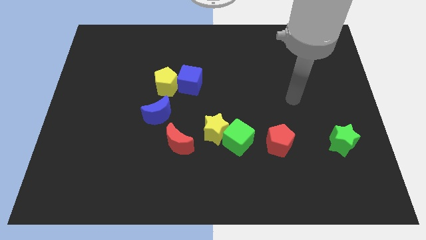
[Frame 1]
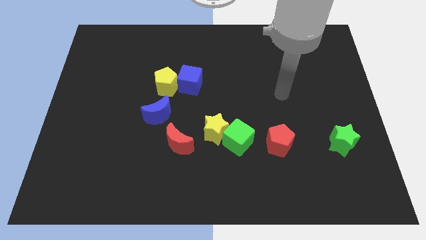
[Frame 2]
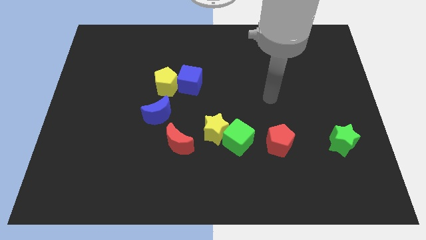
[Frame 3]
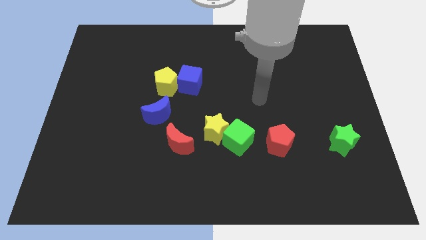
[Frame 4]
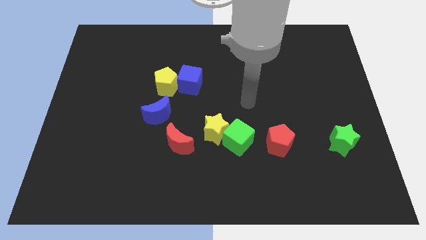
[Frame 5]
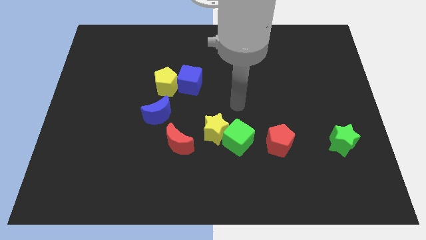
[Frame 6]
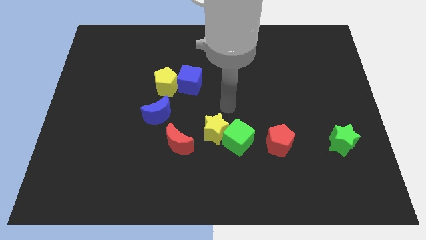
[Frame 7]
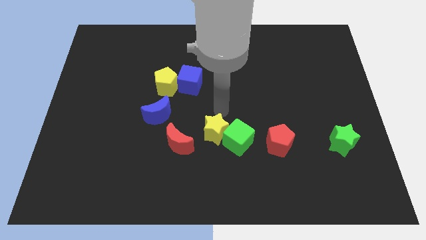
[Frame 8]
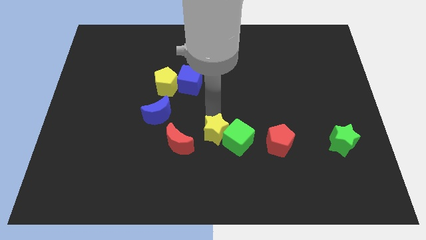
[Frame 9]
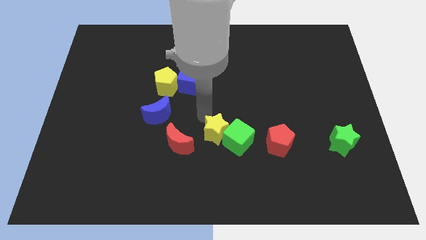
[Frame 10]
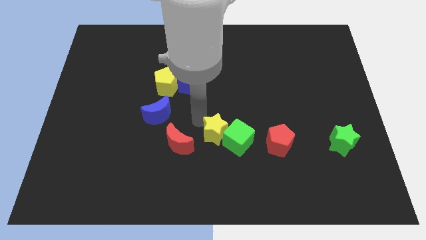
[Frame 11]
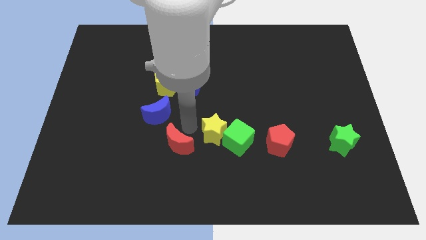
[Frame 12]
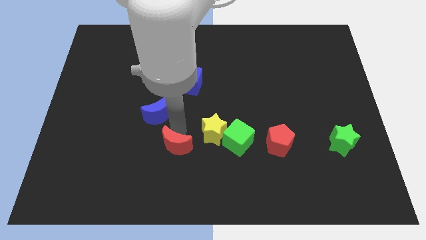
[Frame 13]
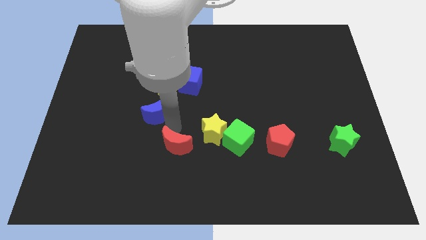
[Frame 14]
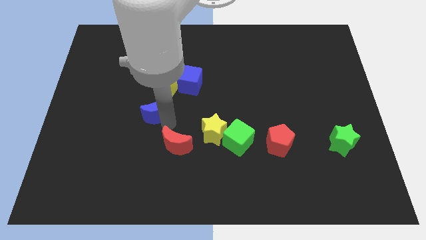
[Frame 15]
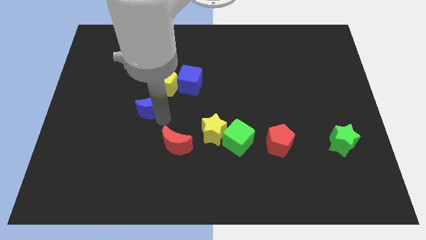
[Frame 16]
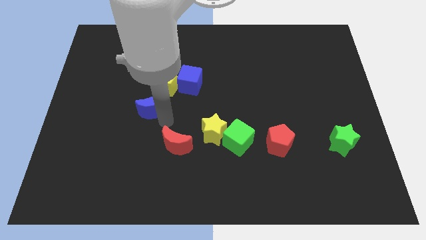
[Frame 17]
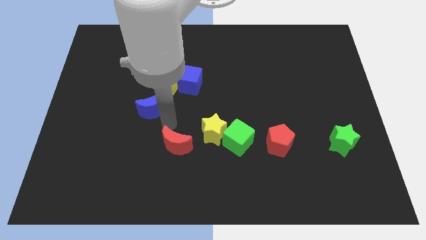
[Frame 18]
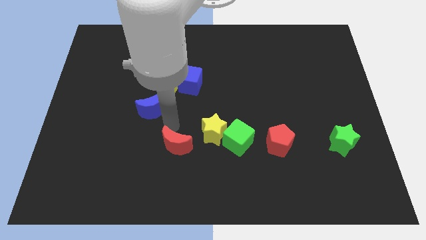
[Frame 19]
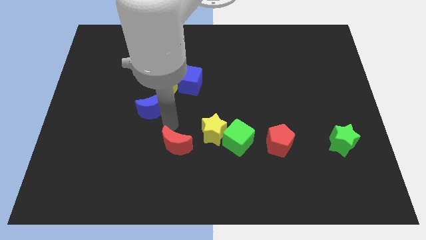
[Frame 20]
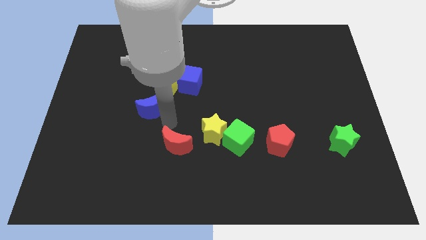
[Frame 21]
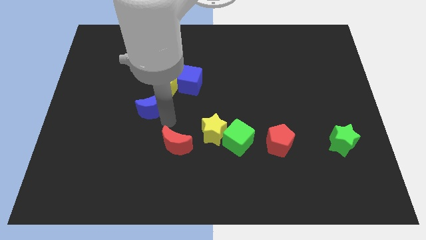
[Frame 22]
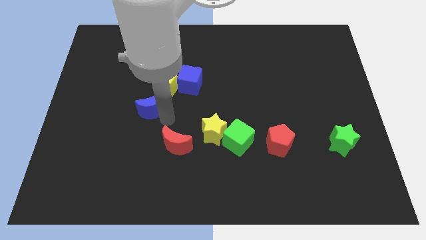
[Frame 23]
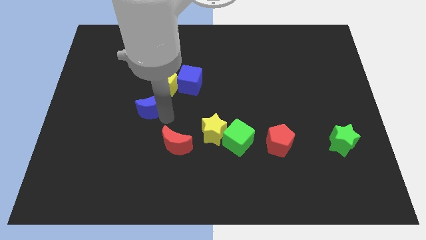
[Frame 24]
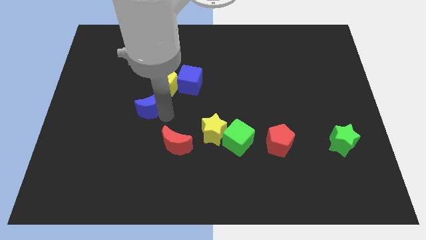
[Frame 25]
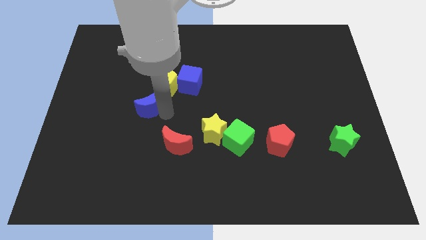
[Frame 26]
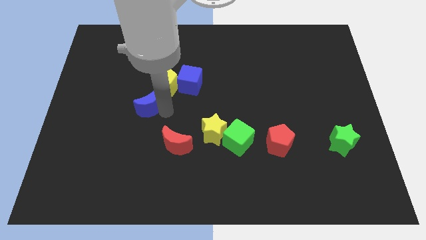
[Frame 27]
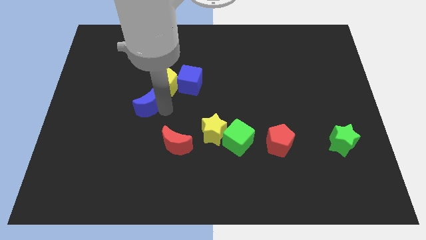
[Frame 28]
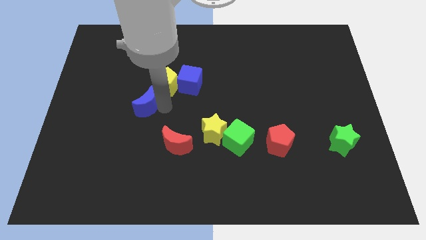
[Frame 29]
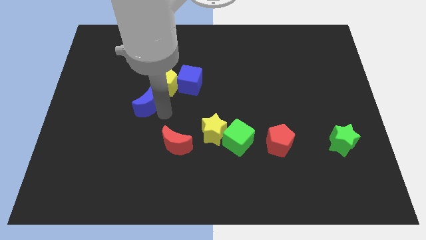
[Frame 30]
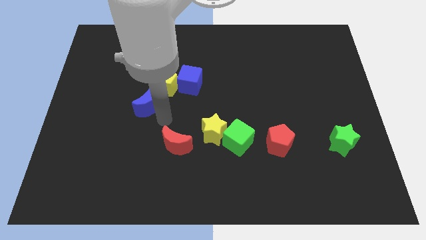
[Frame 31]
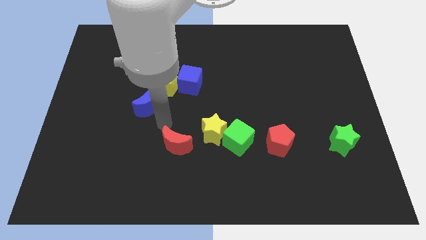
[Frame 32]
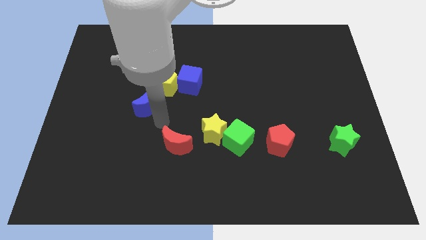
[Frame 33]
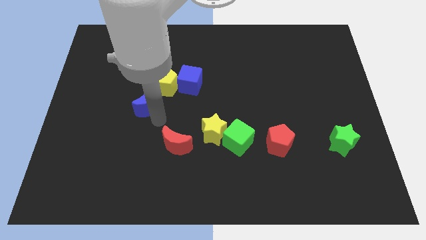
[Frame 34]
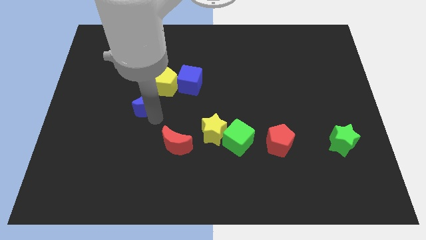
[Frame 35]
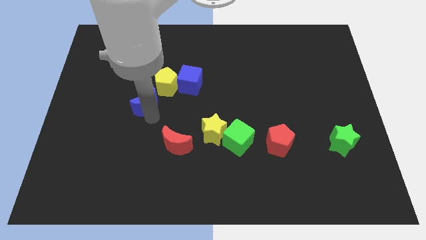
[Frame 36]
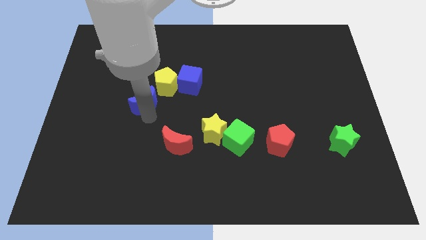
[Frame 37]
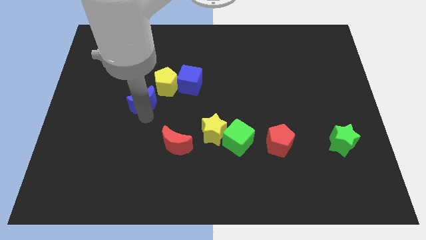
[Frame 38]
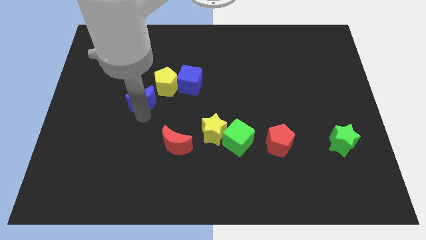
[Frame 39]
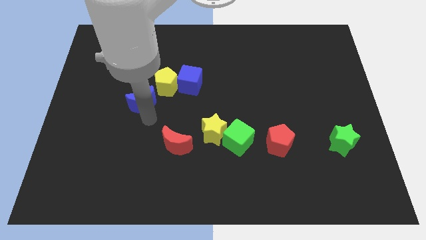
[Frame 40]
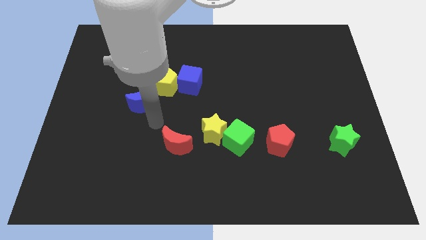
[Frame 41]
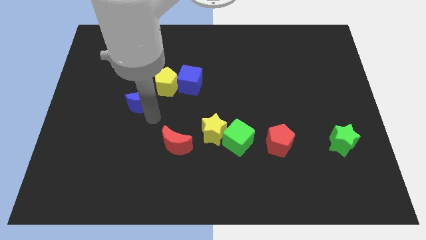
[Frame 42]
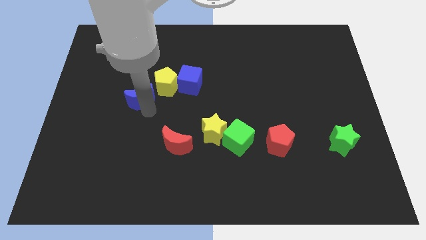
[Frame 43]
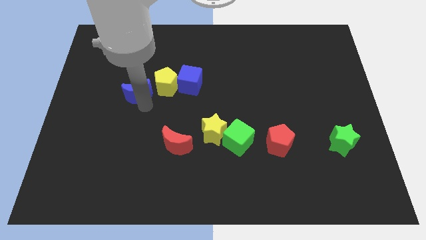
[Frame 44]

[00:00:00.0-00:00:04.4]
push the blue moon up and then left a little

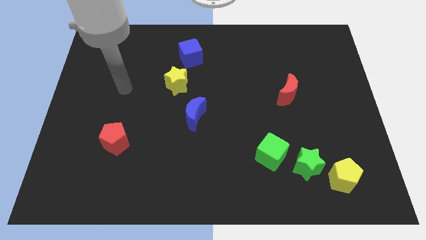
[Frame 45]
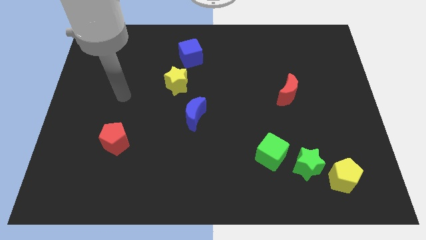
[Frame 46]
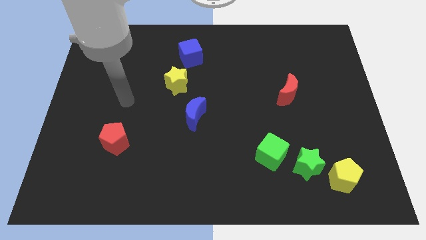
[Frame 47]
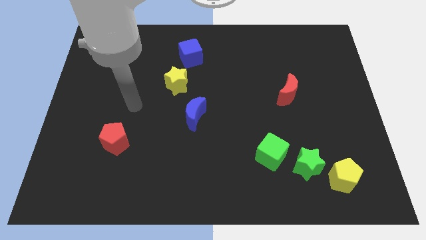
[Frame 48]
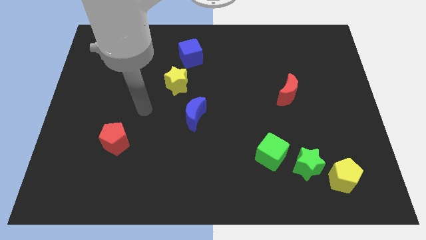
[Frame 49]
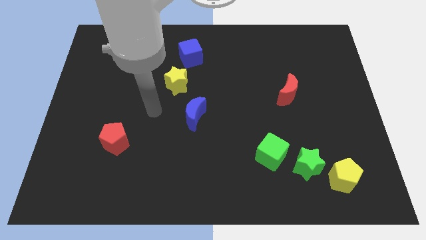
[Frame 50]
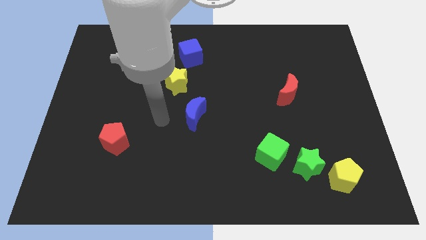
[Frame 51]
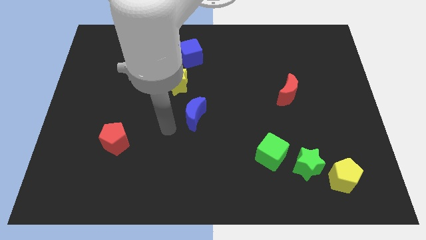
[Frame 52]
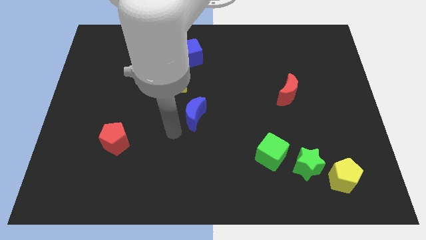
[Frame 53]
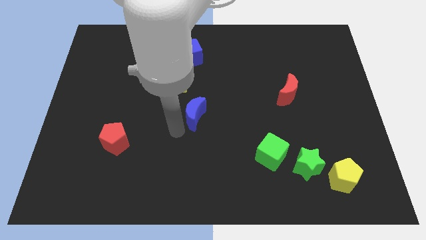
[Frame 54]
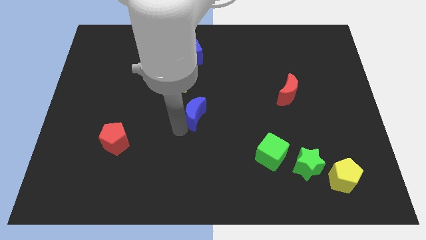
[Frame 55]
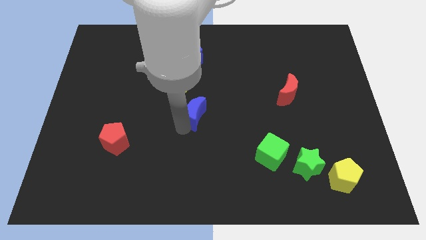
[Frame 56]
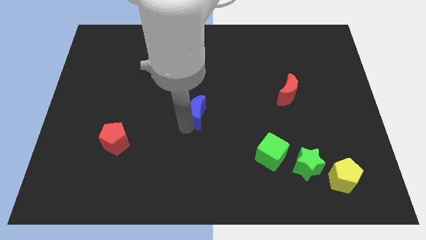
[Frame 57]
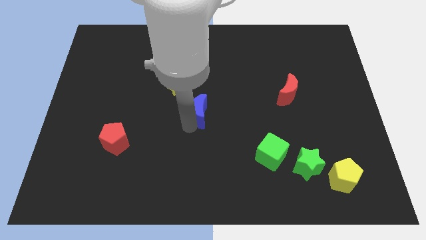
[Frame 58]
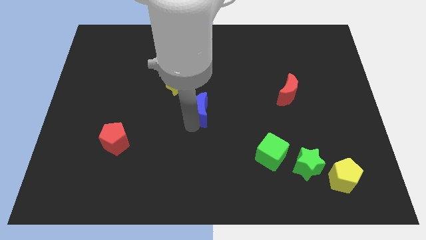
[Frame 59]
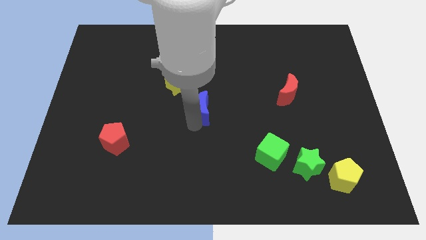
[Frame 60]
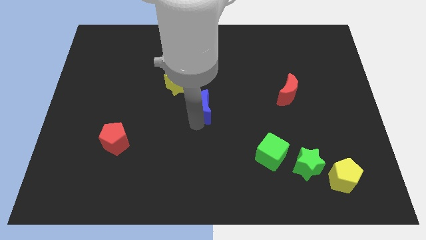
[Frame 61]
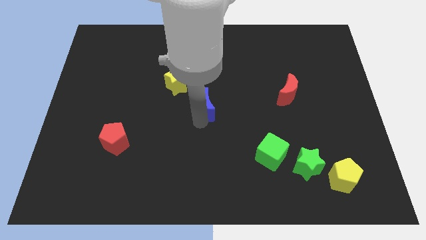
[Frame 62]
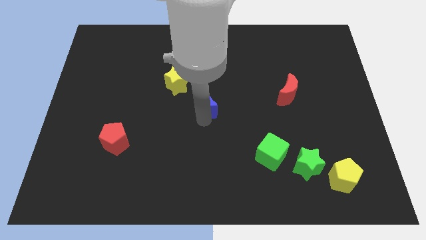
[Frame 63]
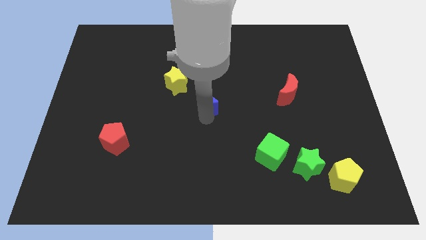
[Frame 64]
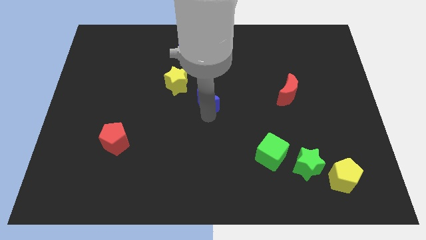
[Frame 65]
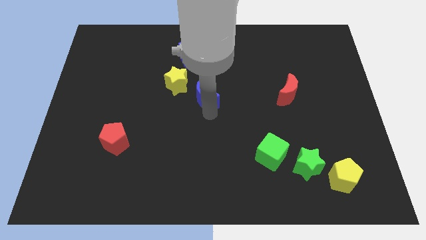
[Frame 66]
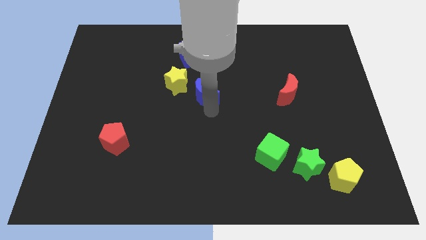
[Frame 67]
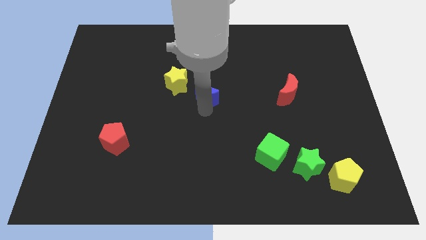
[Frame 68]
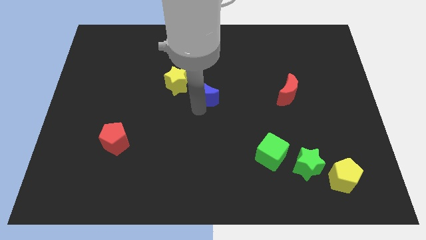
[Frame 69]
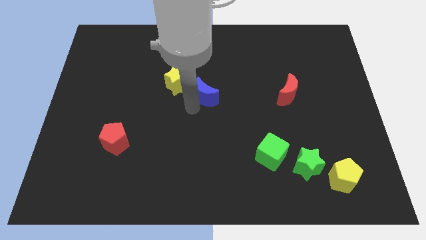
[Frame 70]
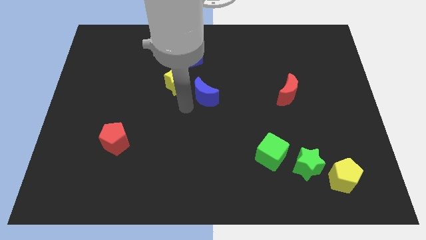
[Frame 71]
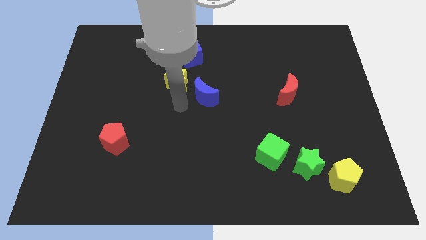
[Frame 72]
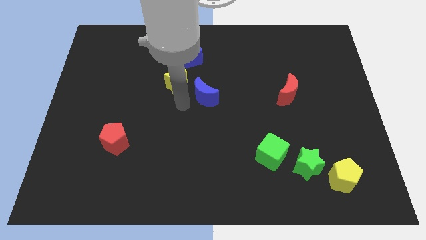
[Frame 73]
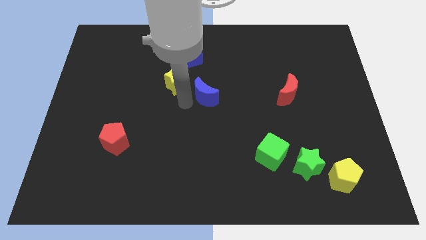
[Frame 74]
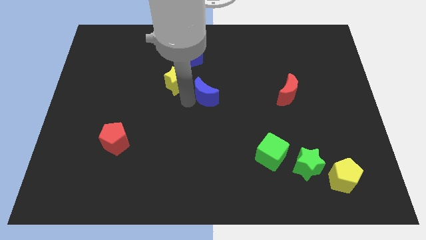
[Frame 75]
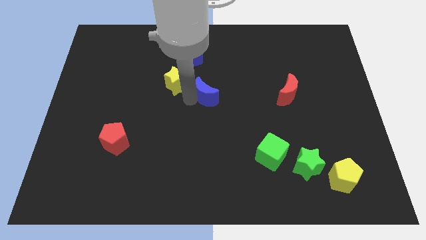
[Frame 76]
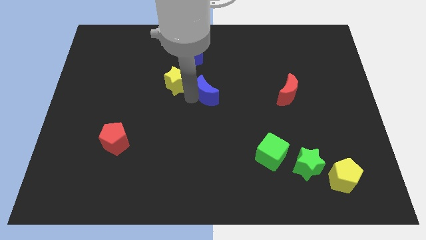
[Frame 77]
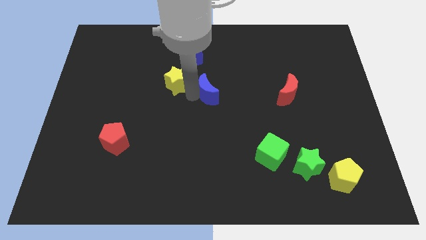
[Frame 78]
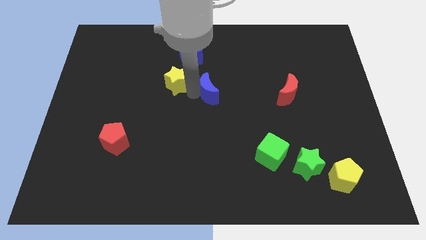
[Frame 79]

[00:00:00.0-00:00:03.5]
slide the blue moon a bit diagonally upwards and to the right

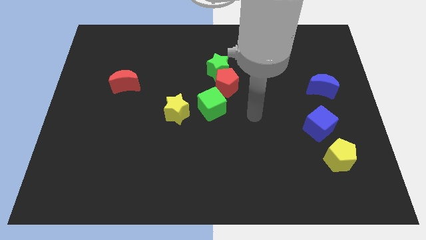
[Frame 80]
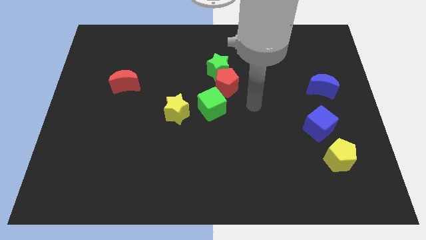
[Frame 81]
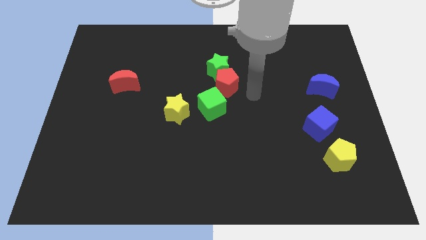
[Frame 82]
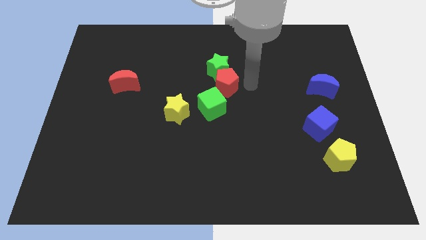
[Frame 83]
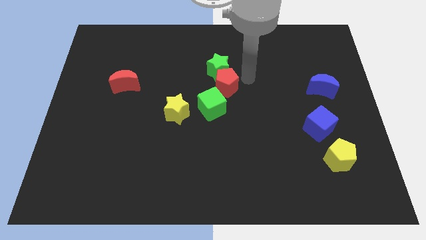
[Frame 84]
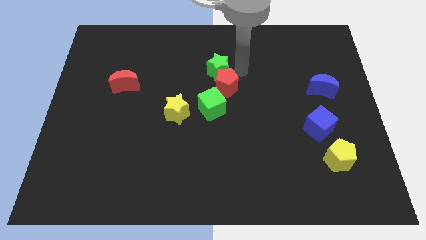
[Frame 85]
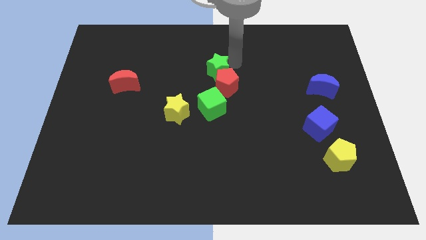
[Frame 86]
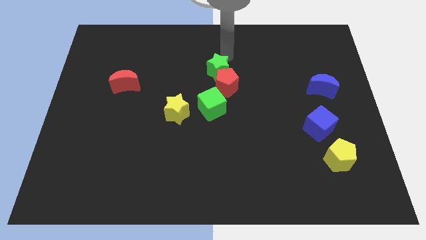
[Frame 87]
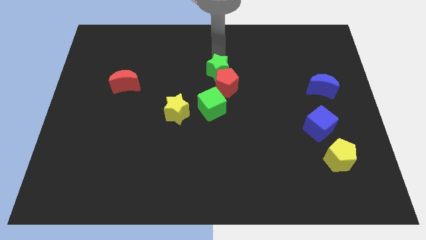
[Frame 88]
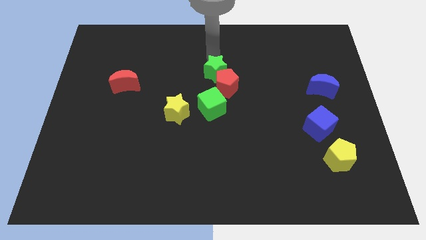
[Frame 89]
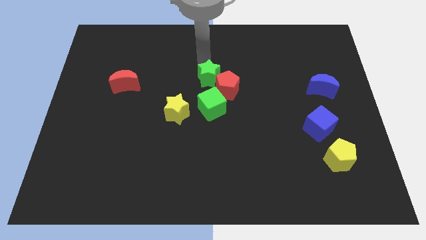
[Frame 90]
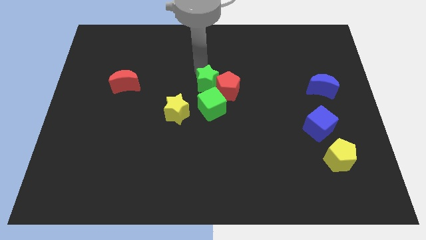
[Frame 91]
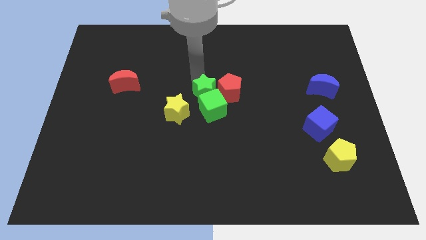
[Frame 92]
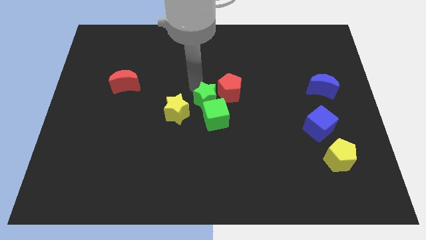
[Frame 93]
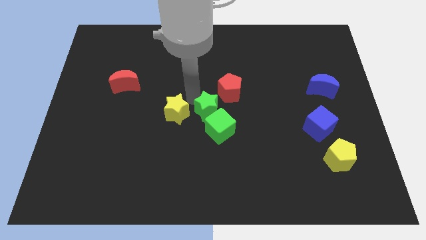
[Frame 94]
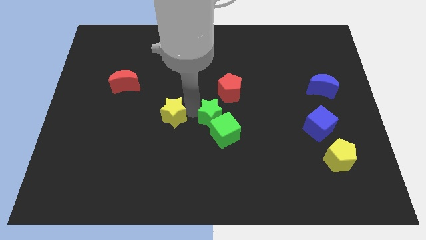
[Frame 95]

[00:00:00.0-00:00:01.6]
move the green cube a little diagonally downwards and right
